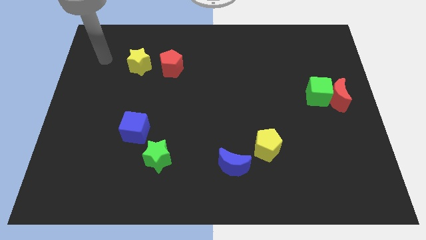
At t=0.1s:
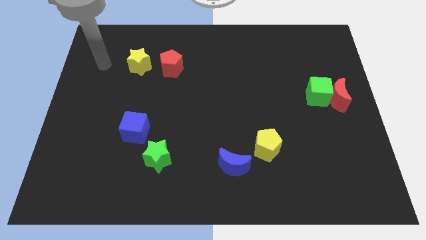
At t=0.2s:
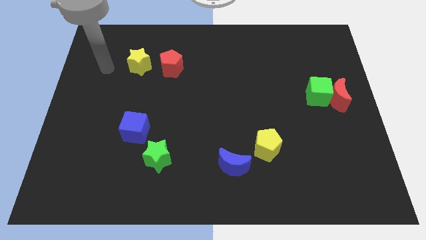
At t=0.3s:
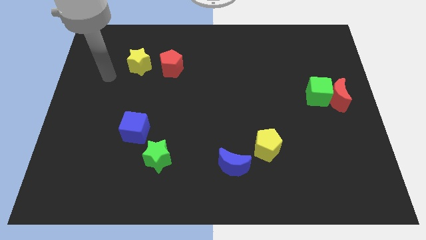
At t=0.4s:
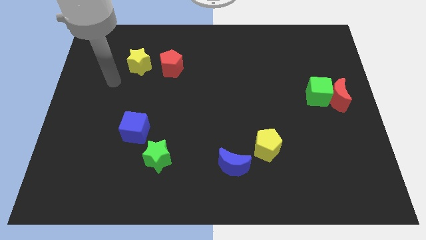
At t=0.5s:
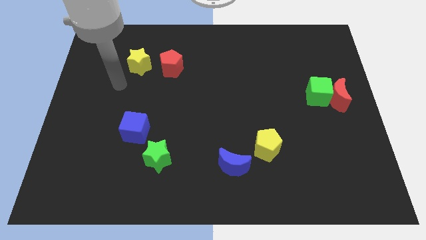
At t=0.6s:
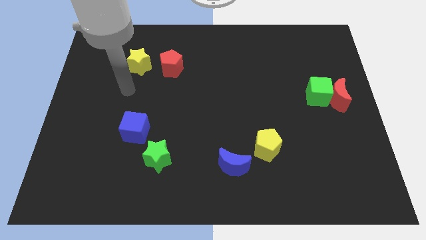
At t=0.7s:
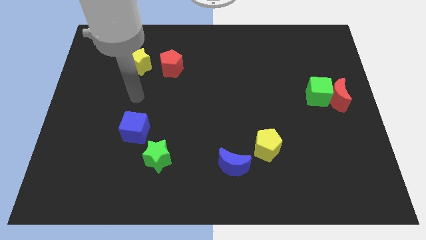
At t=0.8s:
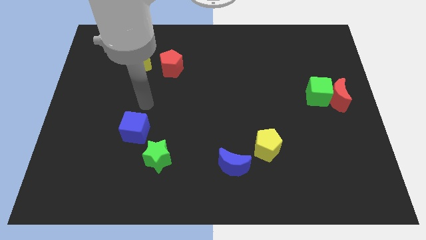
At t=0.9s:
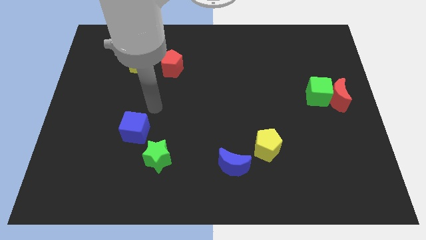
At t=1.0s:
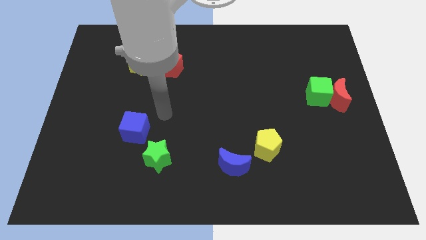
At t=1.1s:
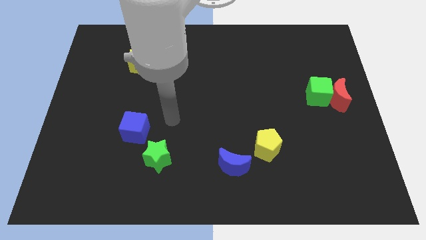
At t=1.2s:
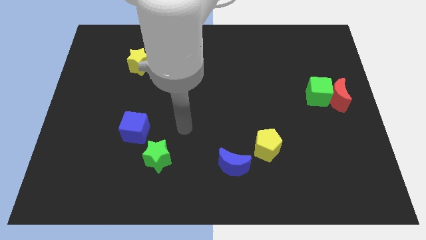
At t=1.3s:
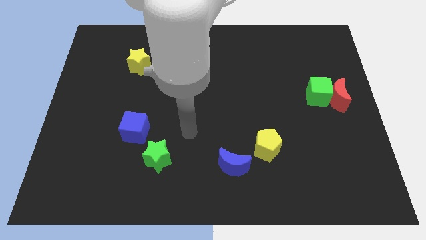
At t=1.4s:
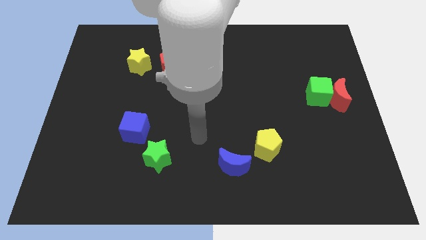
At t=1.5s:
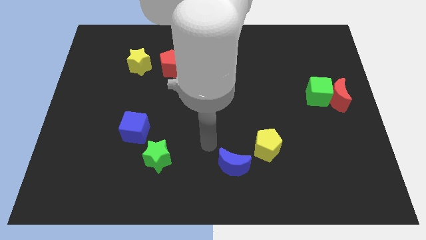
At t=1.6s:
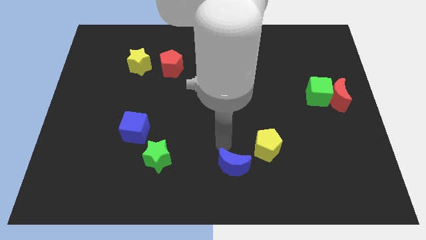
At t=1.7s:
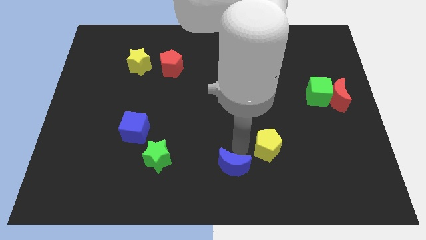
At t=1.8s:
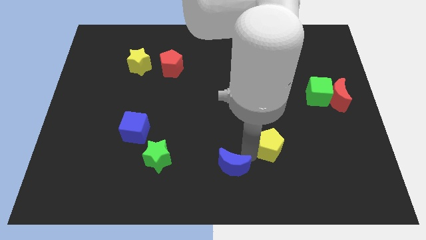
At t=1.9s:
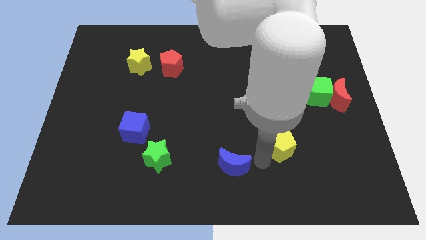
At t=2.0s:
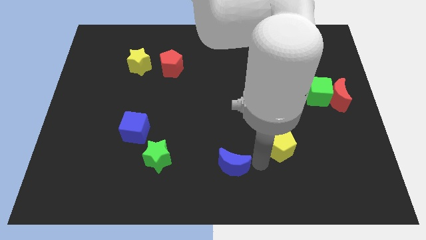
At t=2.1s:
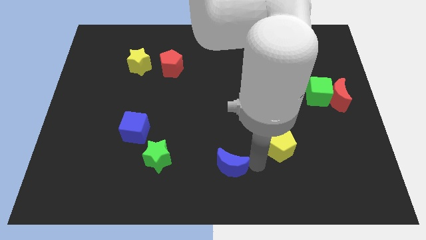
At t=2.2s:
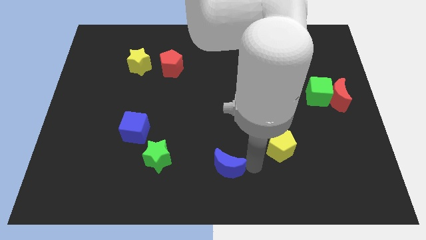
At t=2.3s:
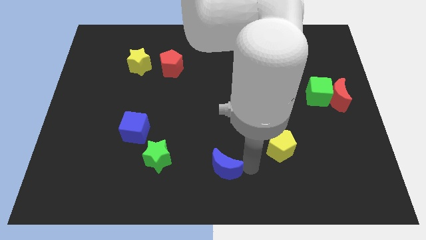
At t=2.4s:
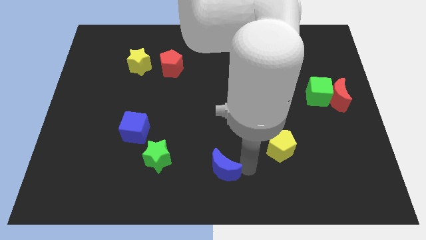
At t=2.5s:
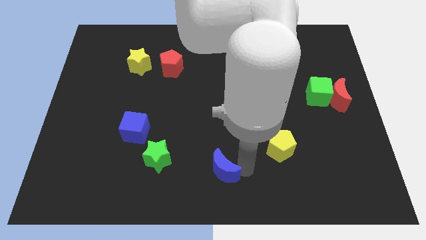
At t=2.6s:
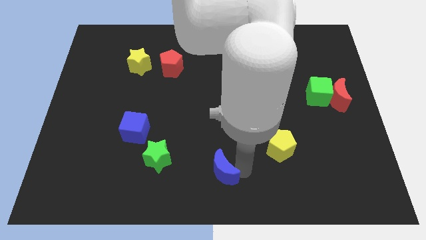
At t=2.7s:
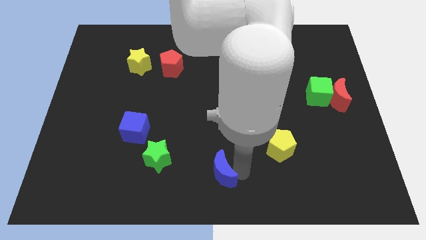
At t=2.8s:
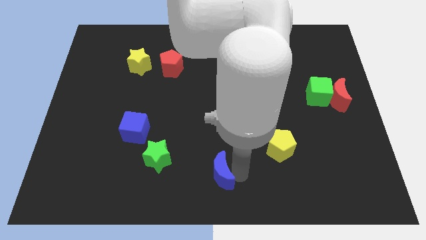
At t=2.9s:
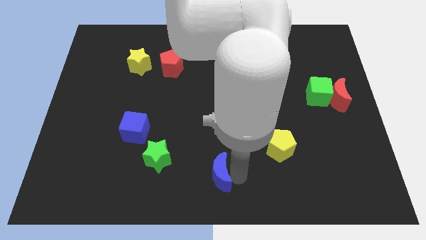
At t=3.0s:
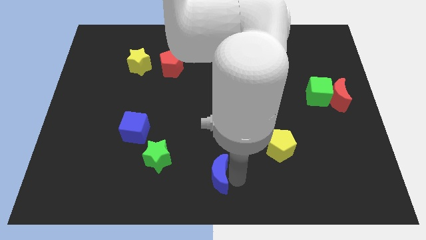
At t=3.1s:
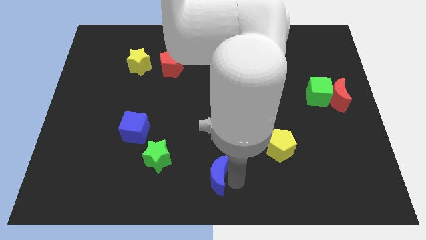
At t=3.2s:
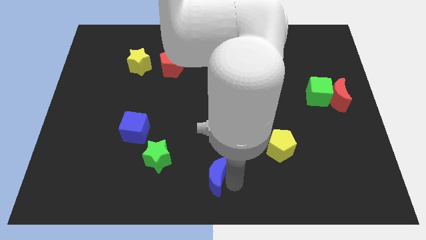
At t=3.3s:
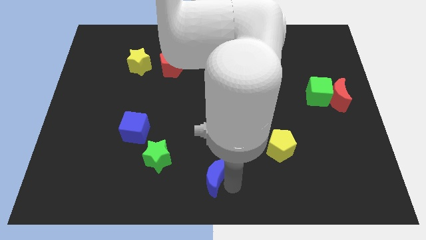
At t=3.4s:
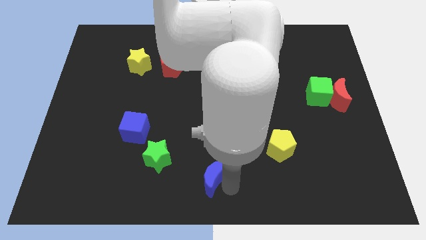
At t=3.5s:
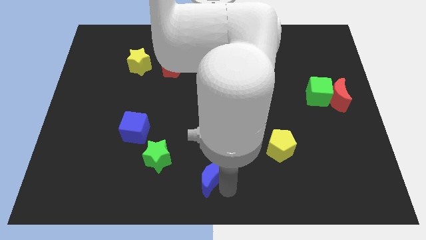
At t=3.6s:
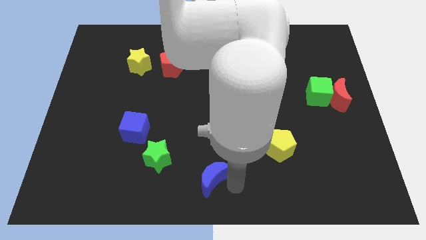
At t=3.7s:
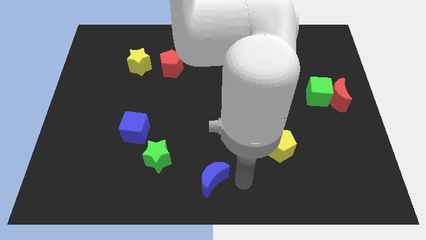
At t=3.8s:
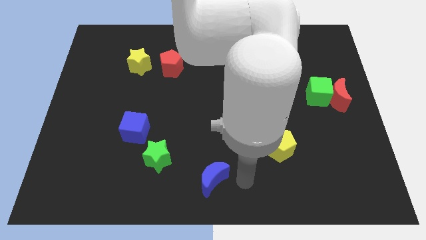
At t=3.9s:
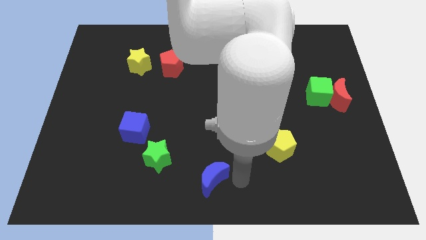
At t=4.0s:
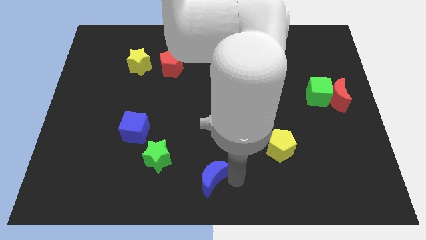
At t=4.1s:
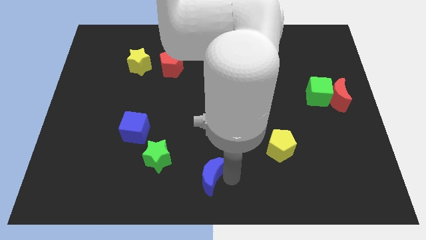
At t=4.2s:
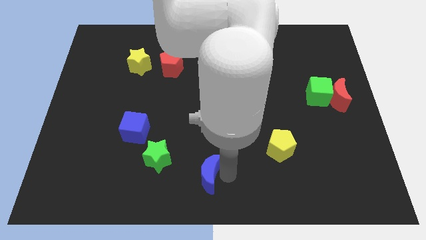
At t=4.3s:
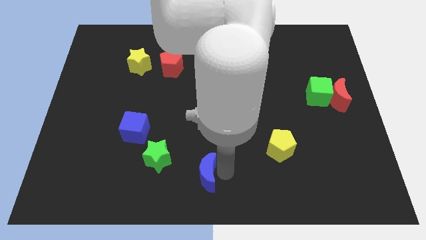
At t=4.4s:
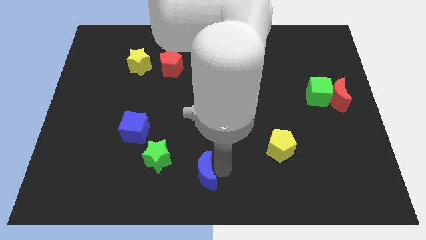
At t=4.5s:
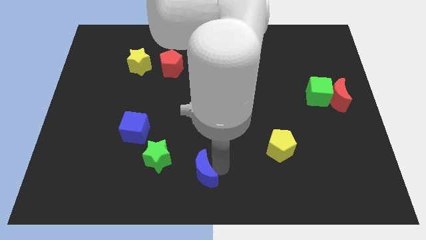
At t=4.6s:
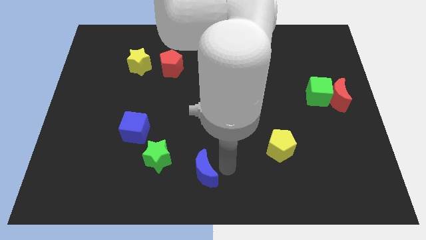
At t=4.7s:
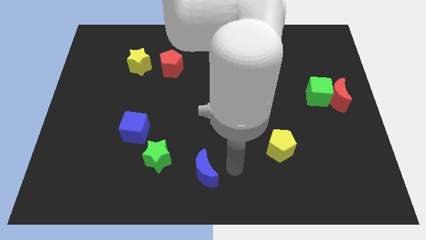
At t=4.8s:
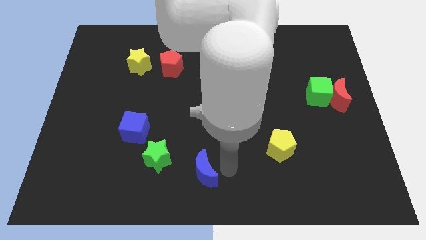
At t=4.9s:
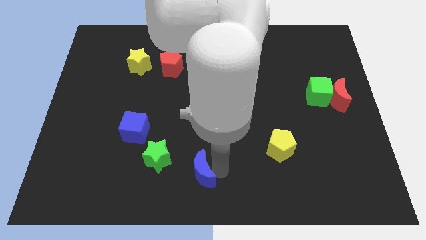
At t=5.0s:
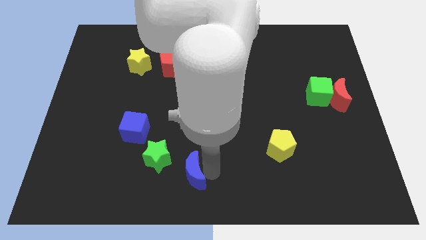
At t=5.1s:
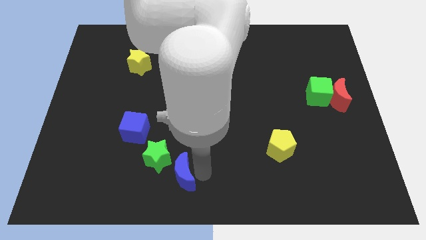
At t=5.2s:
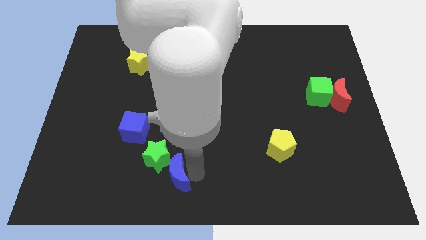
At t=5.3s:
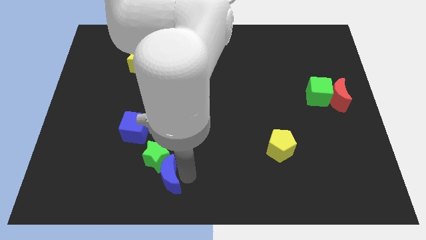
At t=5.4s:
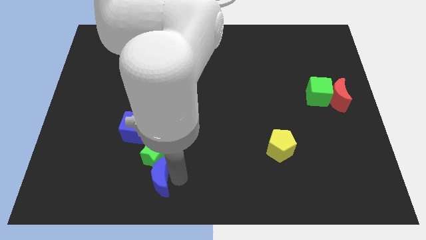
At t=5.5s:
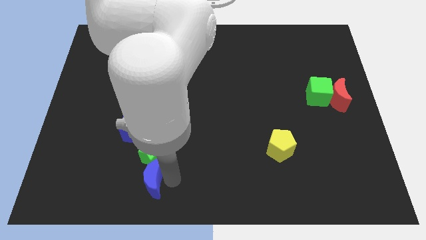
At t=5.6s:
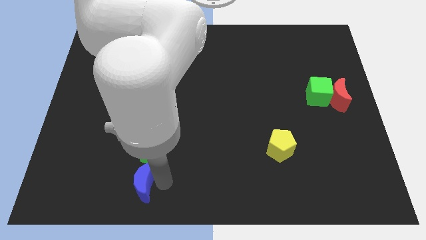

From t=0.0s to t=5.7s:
push the blue moon to the bottom of the blue cube

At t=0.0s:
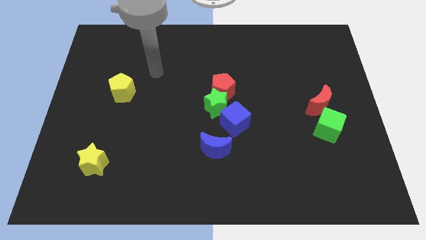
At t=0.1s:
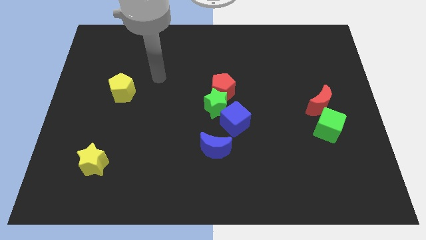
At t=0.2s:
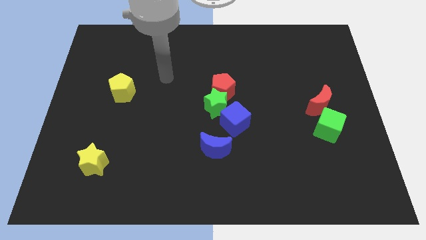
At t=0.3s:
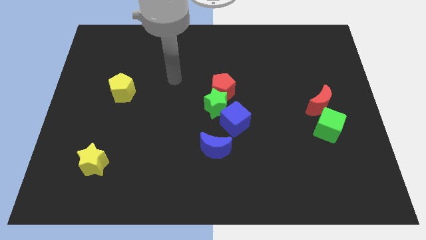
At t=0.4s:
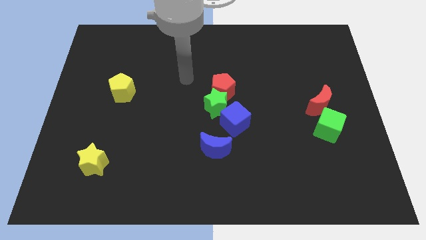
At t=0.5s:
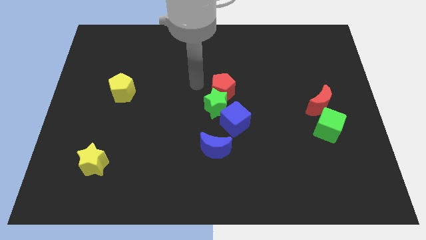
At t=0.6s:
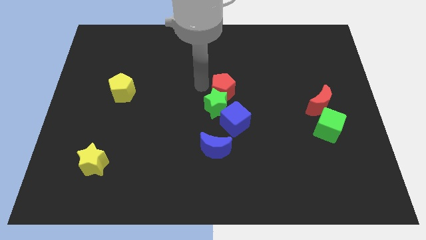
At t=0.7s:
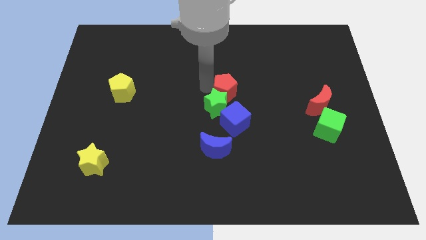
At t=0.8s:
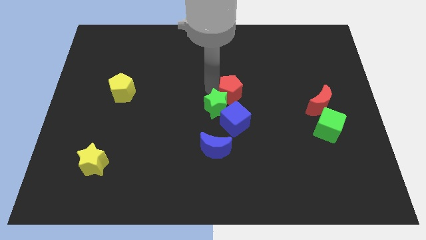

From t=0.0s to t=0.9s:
slide the red pentagon to the right side of the green star
